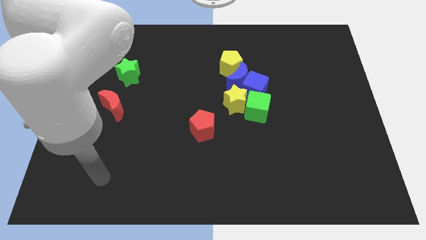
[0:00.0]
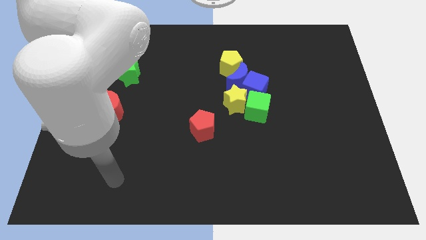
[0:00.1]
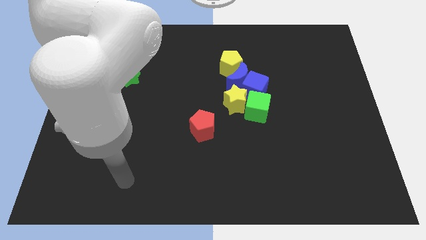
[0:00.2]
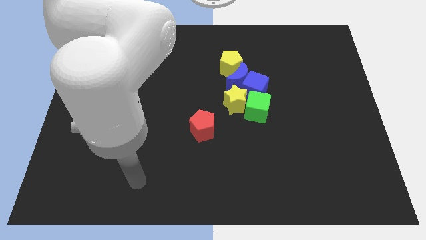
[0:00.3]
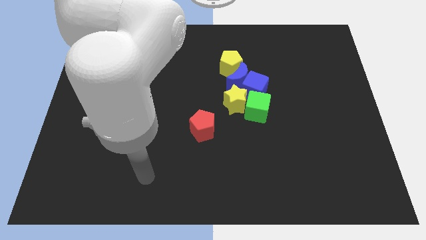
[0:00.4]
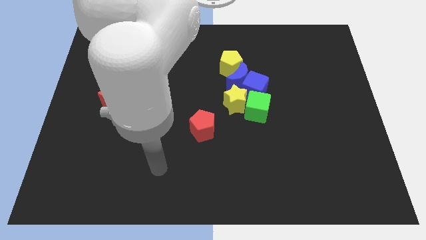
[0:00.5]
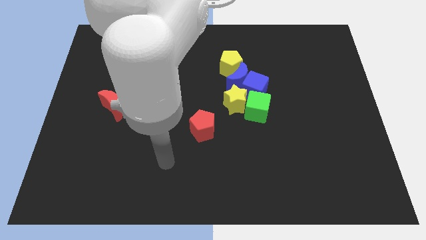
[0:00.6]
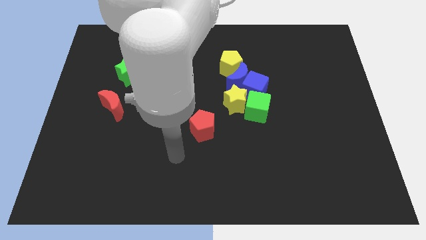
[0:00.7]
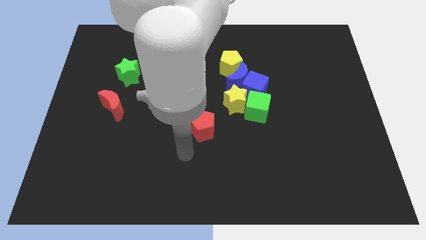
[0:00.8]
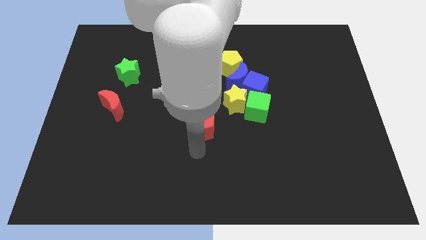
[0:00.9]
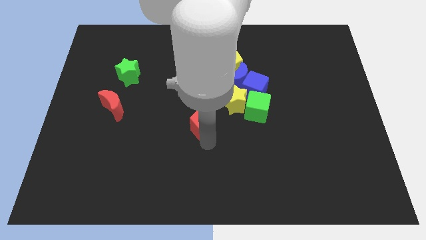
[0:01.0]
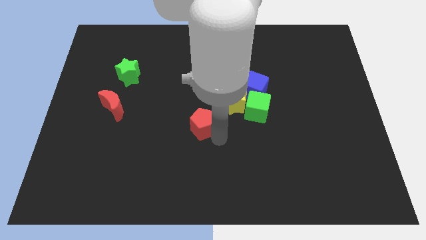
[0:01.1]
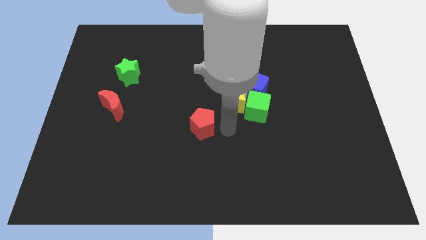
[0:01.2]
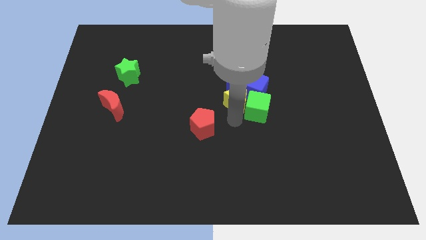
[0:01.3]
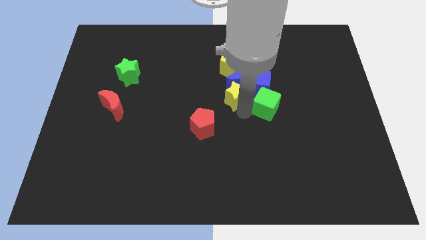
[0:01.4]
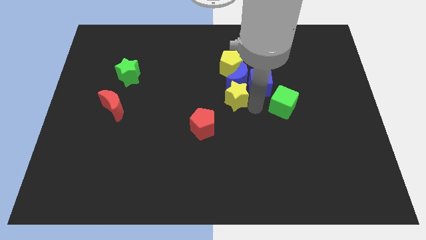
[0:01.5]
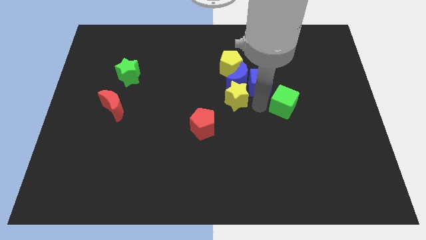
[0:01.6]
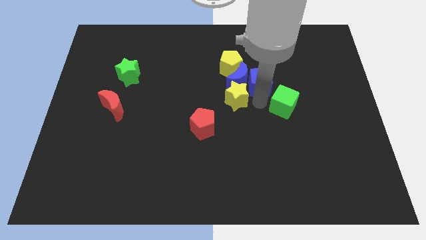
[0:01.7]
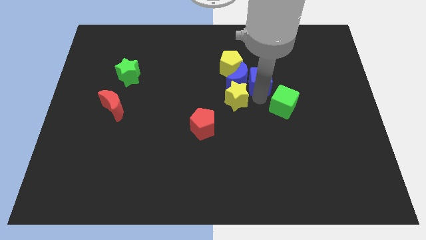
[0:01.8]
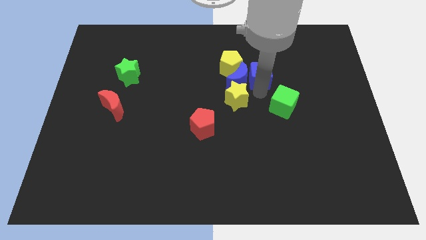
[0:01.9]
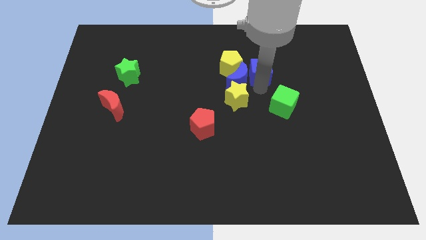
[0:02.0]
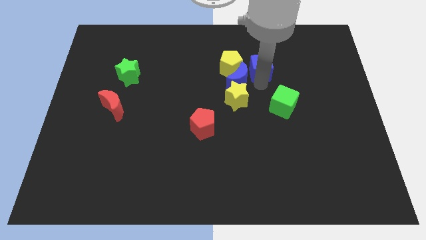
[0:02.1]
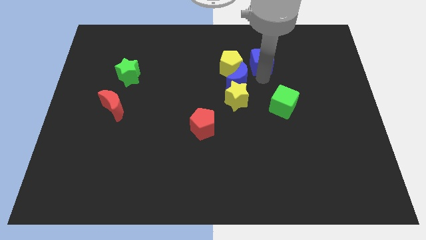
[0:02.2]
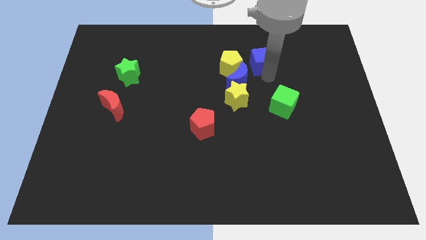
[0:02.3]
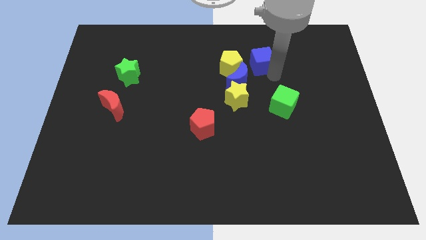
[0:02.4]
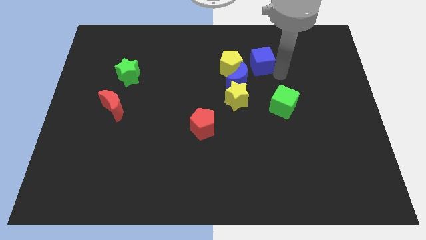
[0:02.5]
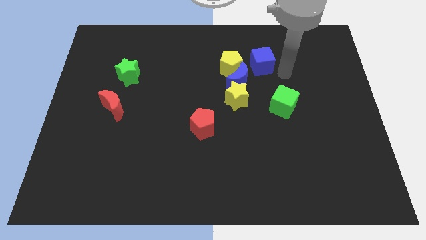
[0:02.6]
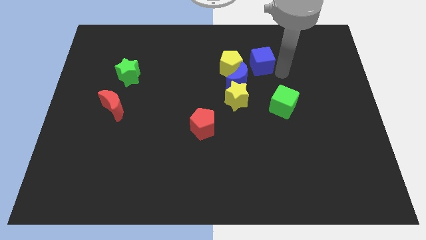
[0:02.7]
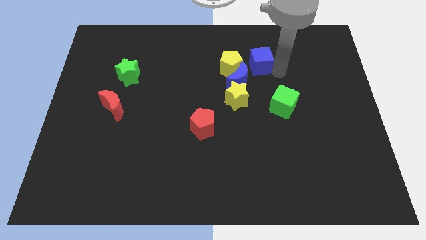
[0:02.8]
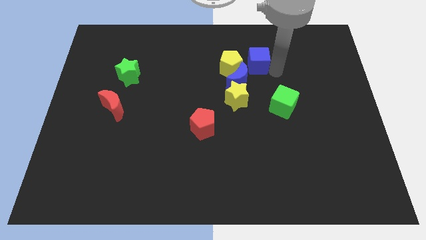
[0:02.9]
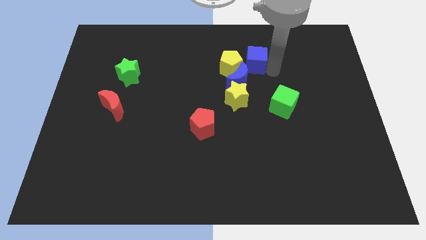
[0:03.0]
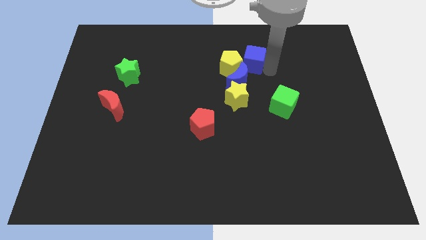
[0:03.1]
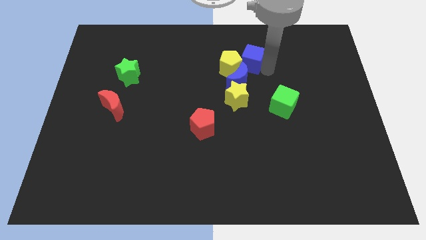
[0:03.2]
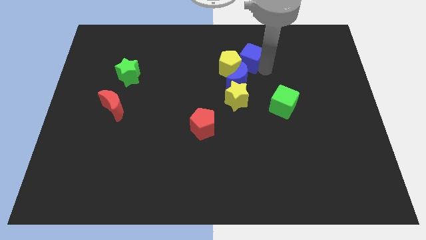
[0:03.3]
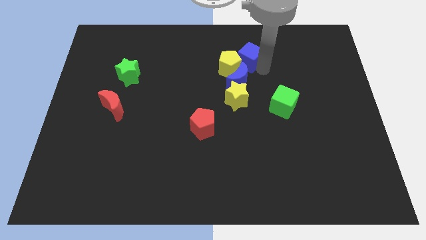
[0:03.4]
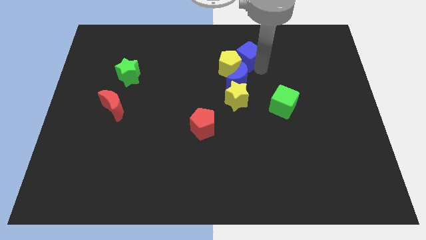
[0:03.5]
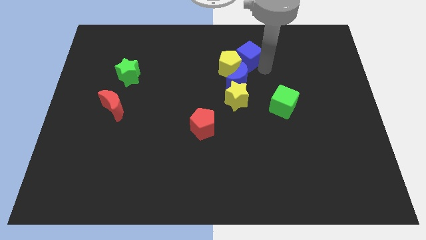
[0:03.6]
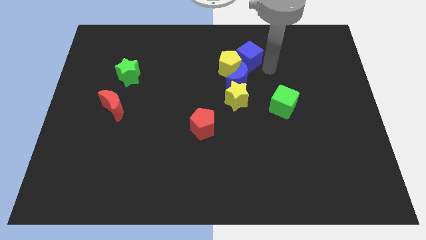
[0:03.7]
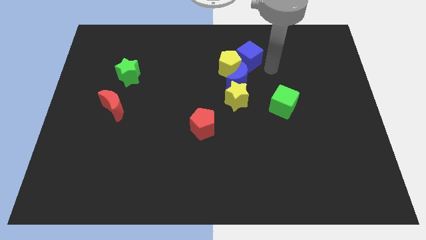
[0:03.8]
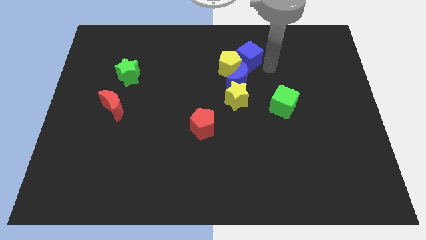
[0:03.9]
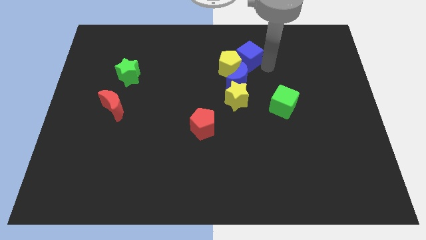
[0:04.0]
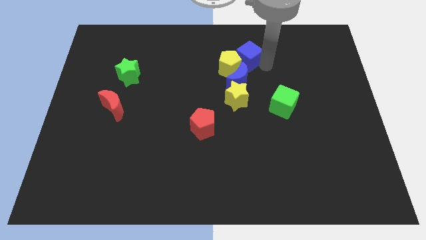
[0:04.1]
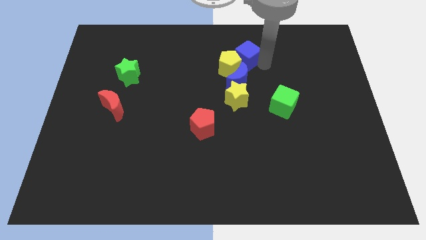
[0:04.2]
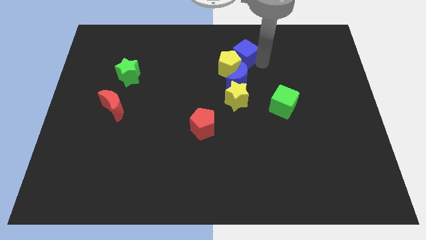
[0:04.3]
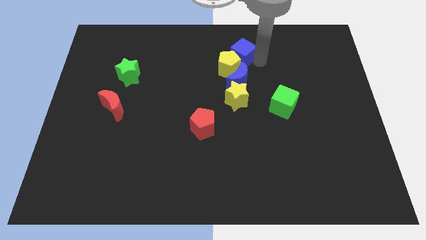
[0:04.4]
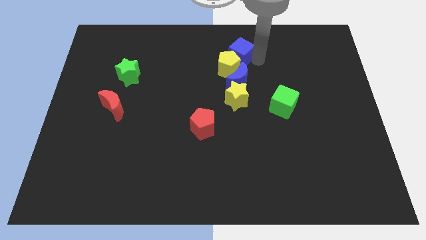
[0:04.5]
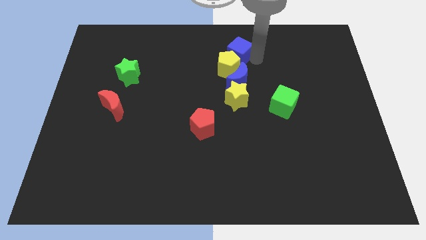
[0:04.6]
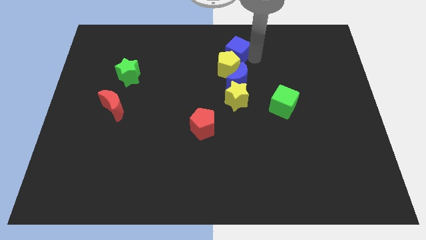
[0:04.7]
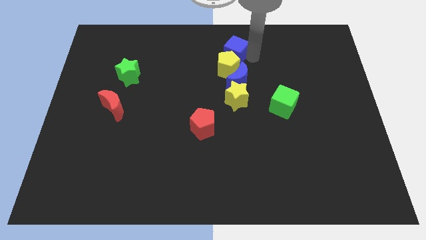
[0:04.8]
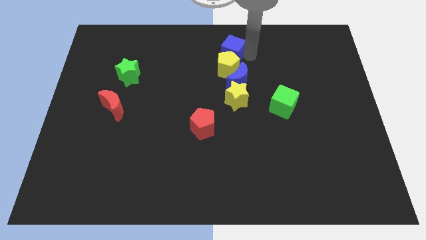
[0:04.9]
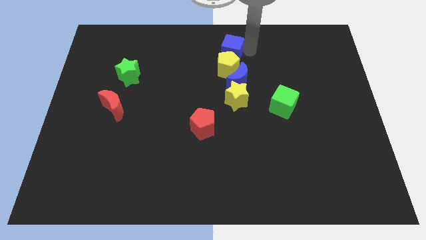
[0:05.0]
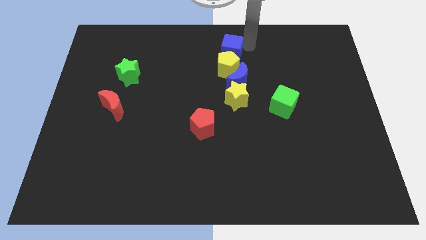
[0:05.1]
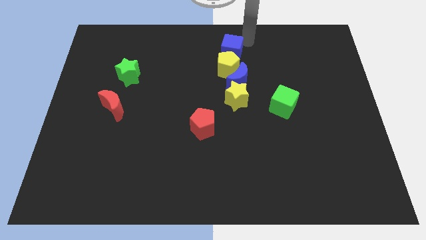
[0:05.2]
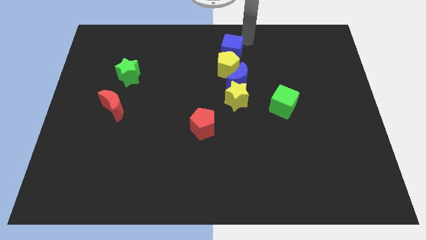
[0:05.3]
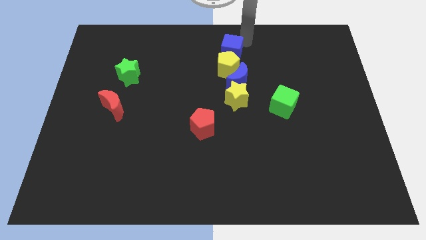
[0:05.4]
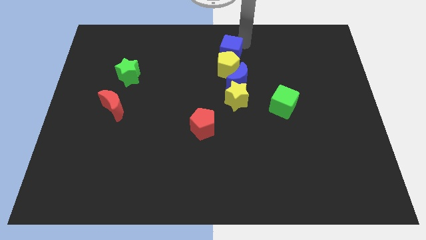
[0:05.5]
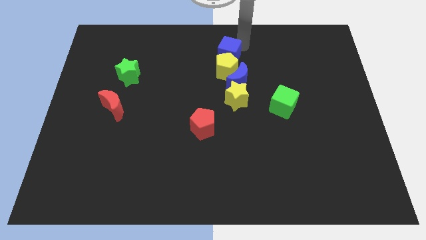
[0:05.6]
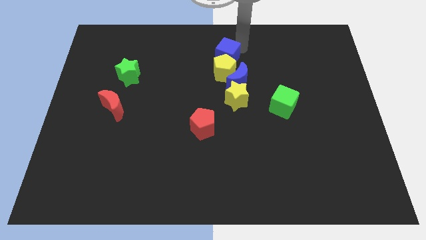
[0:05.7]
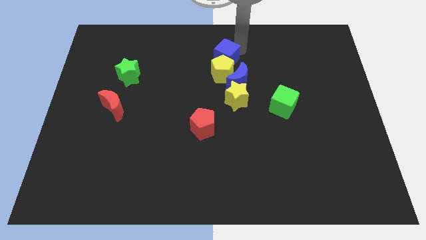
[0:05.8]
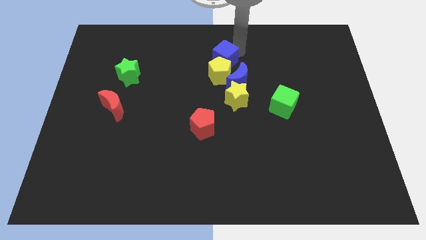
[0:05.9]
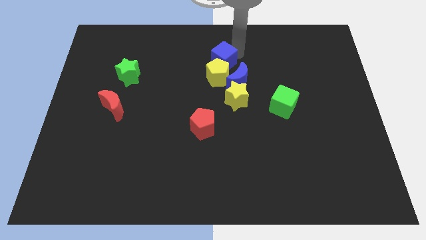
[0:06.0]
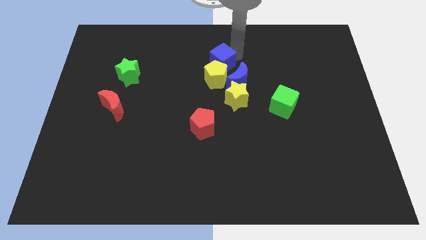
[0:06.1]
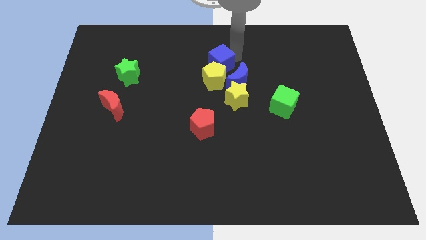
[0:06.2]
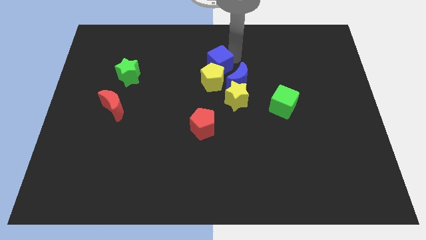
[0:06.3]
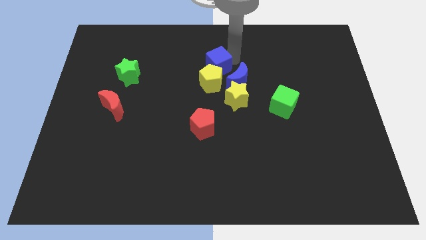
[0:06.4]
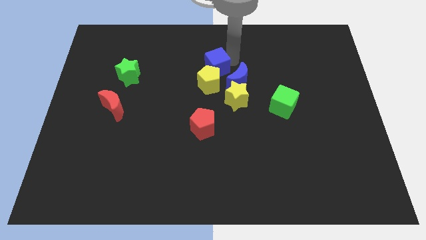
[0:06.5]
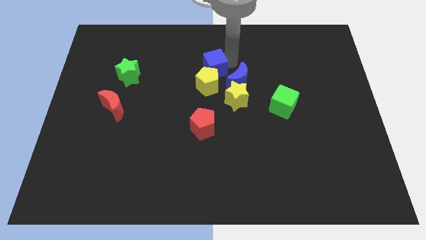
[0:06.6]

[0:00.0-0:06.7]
put the blue cube to the top left of the yellow star
